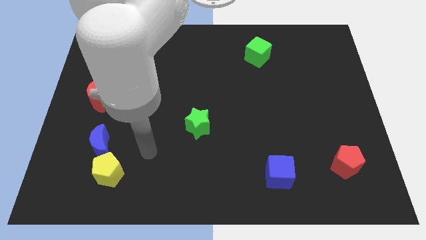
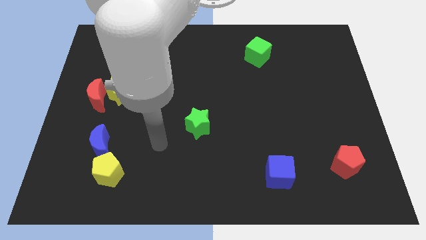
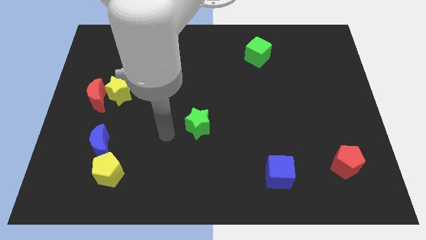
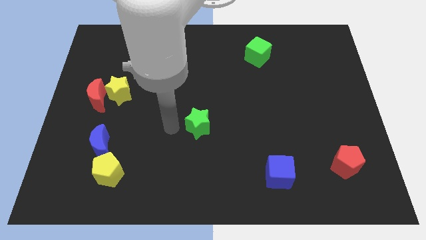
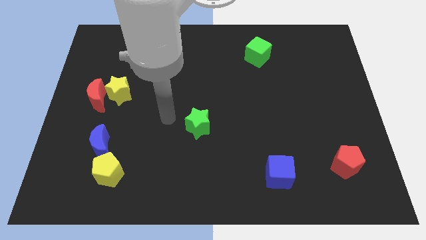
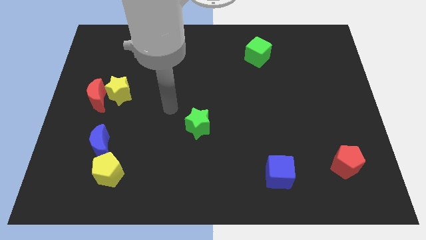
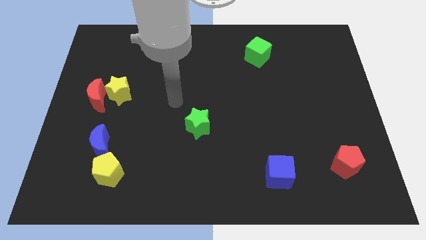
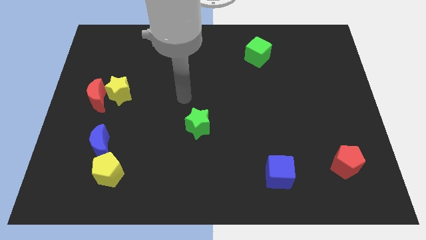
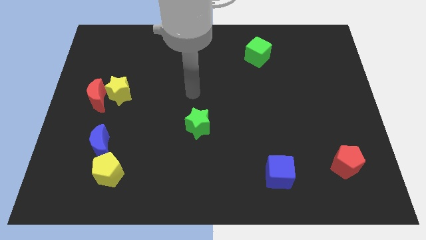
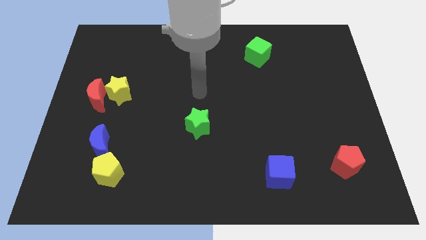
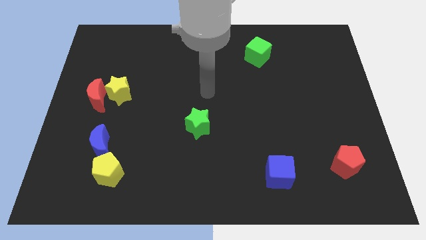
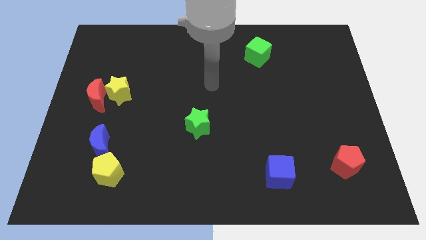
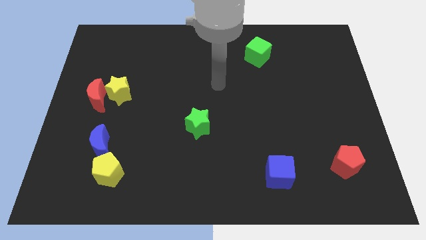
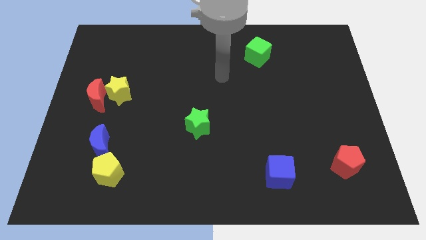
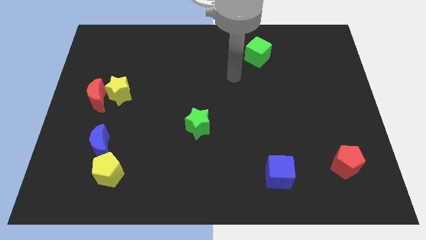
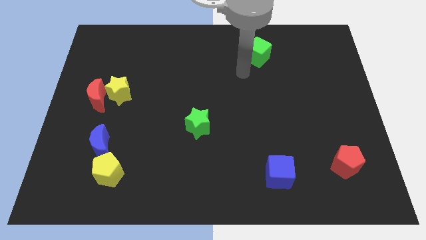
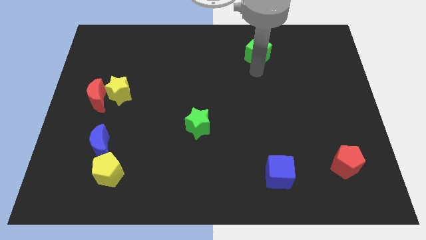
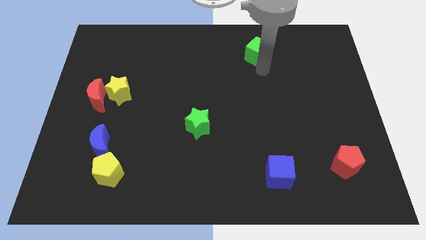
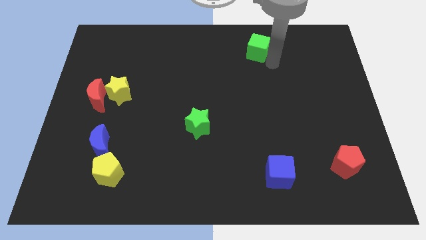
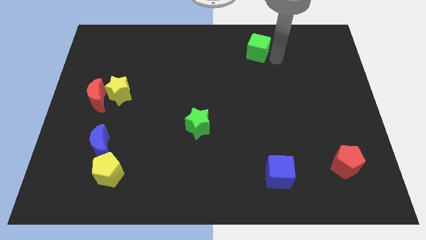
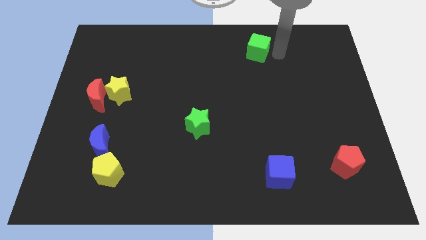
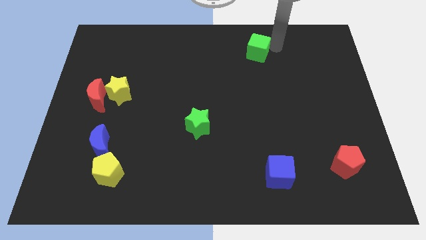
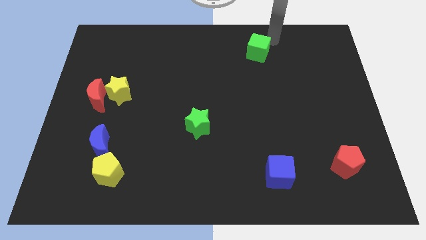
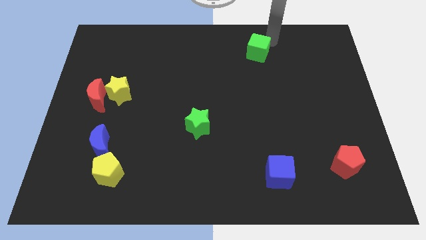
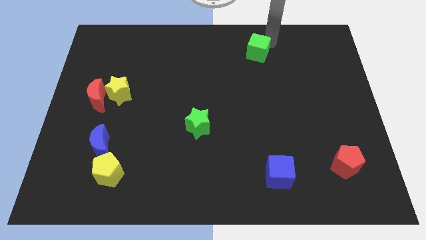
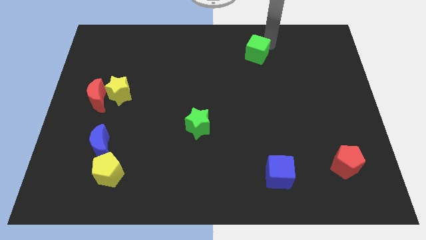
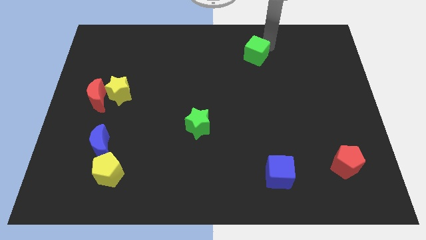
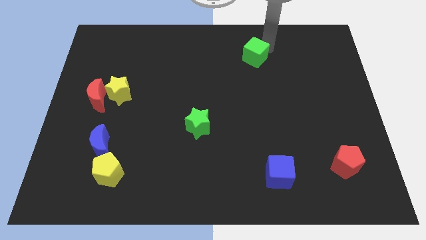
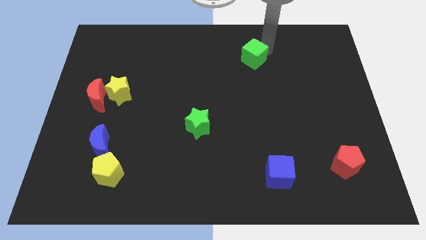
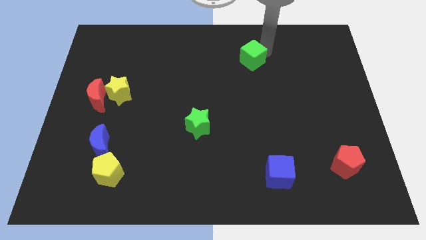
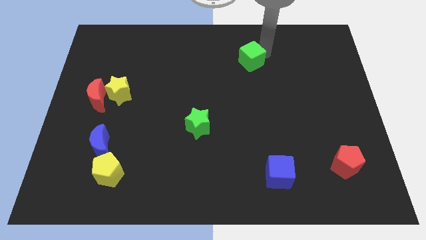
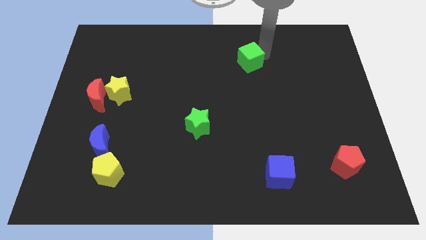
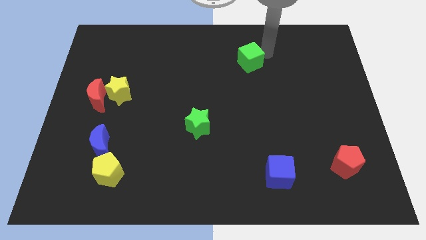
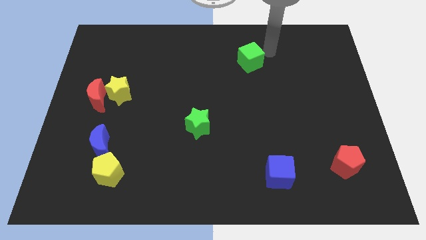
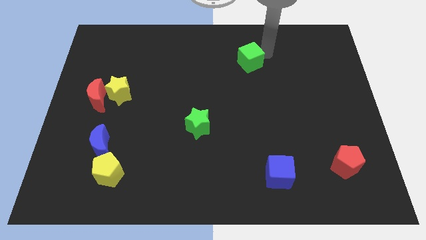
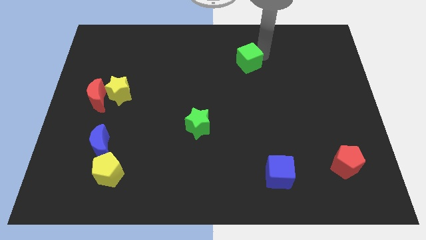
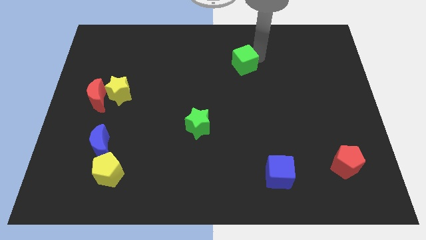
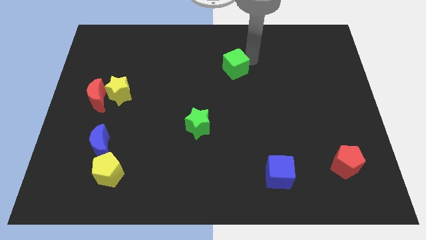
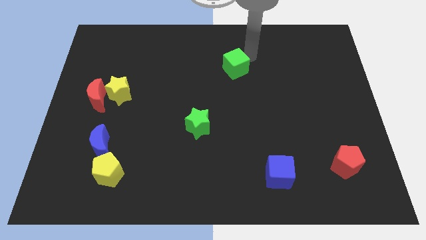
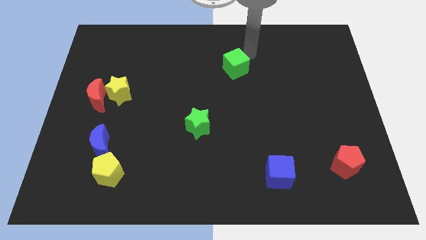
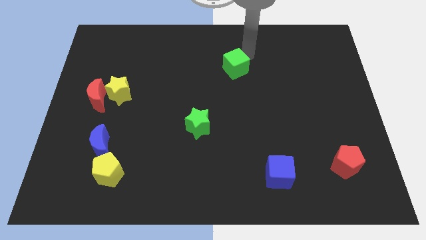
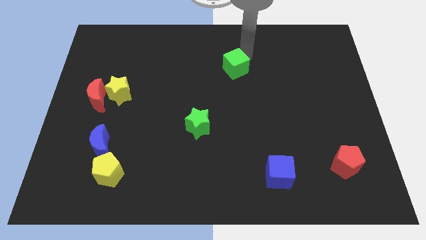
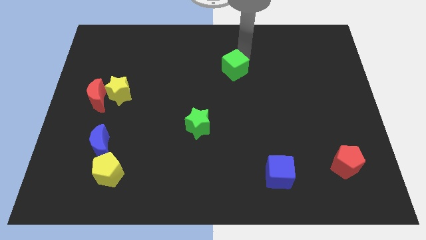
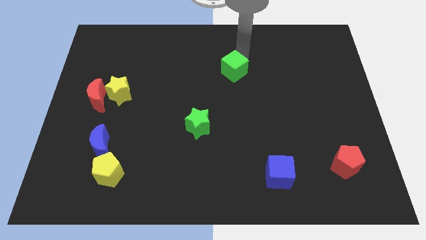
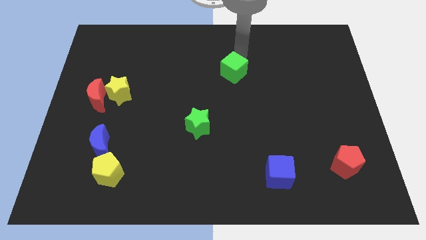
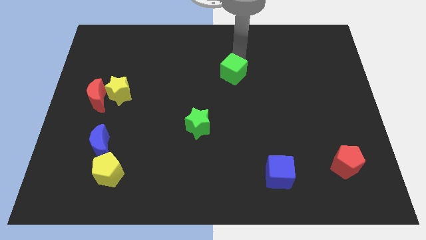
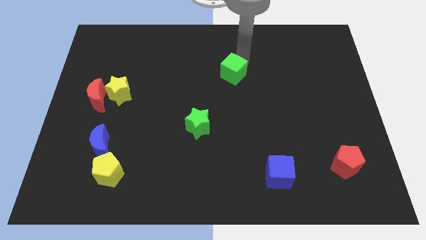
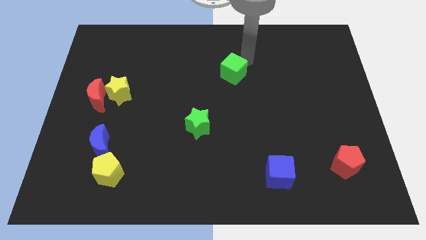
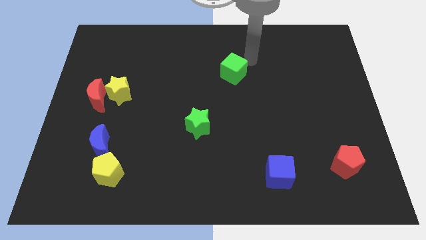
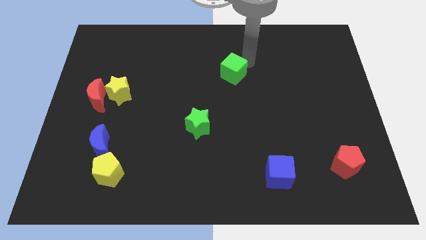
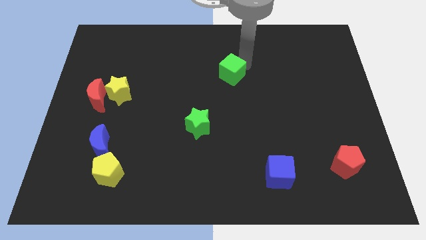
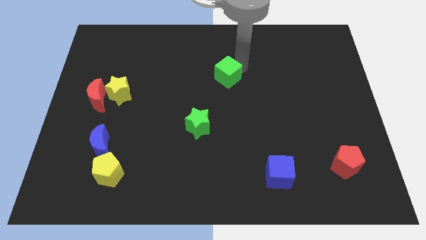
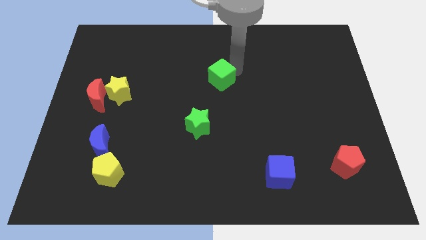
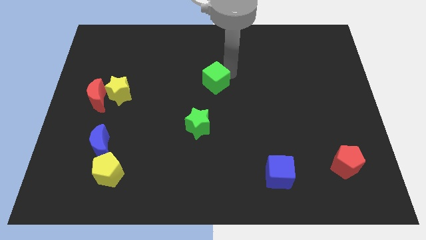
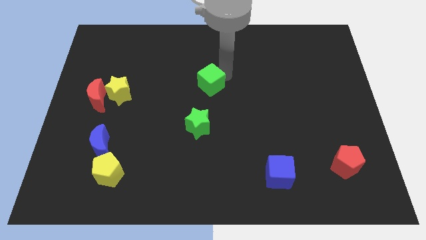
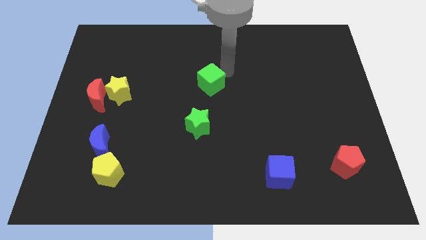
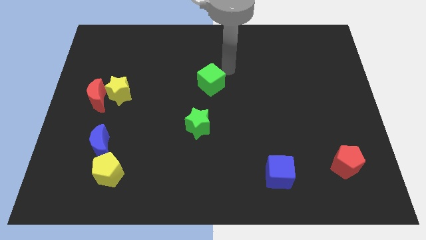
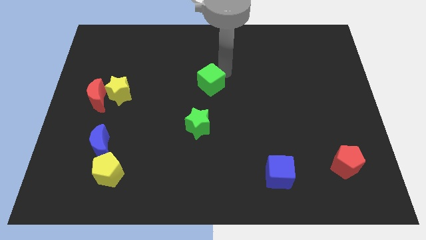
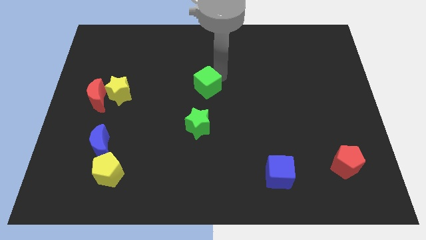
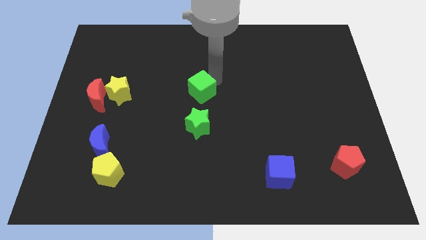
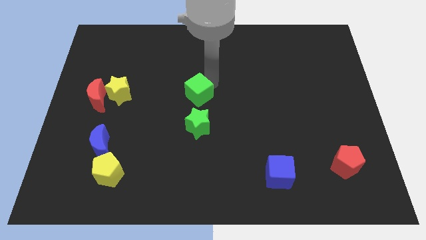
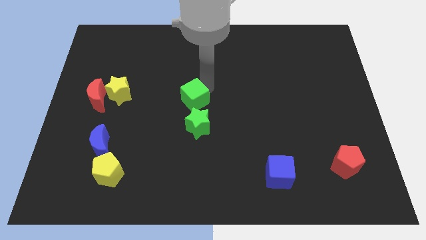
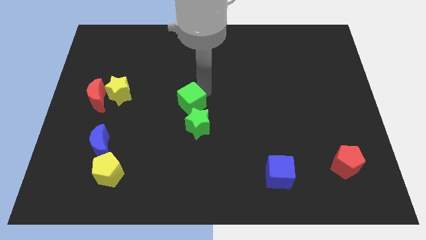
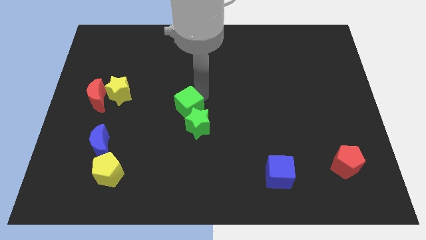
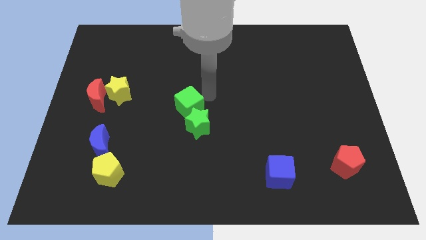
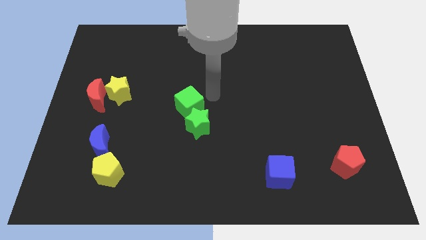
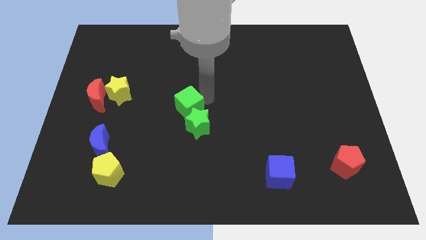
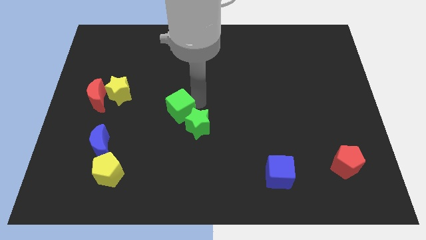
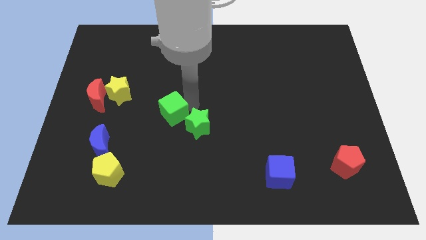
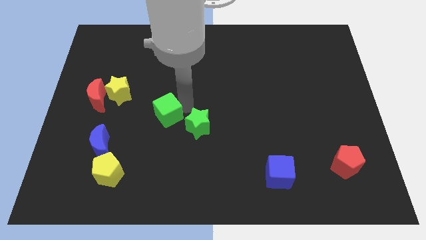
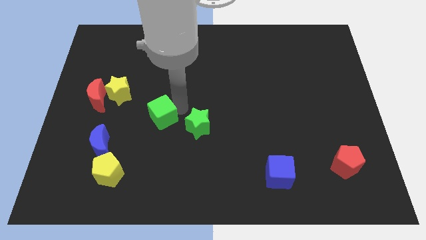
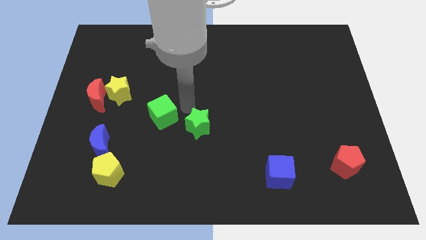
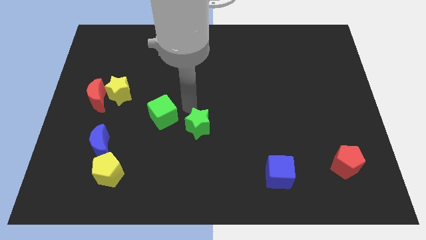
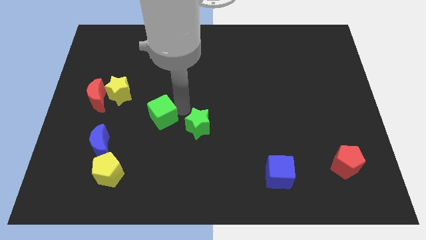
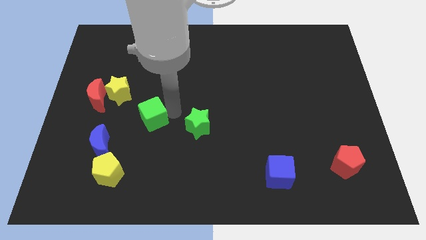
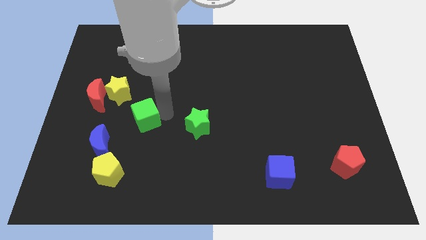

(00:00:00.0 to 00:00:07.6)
slide the green cube to the top right of the blue moon

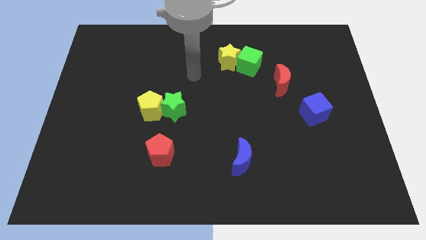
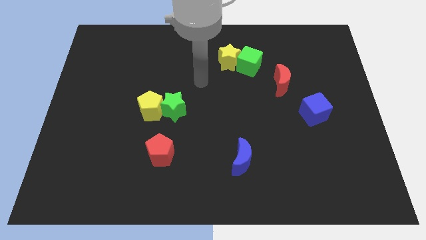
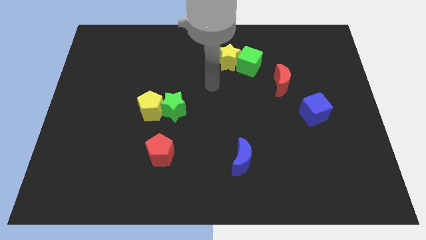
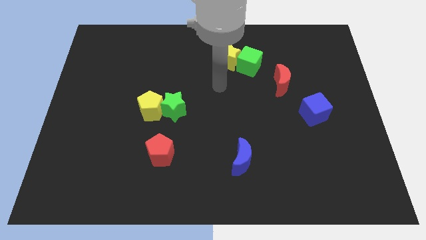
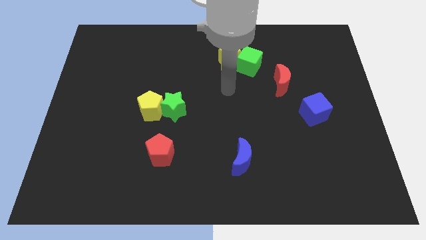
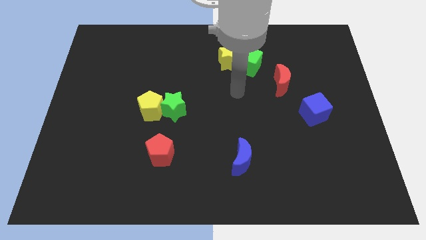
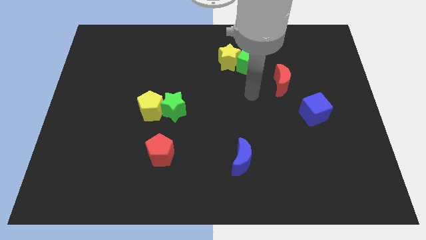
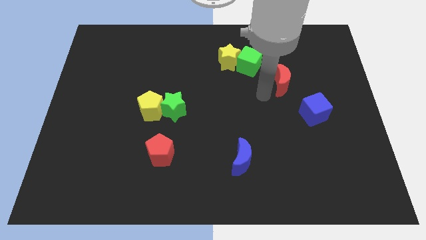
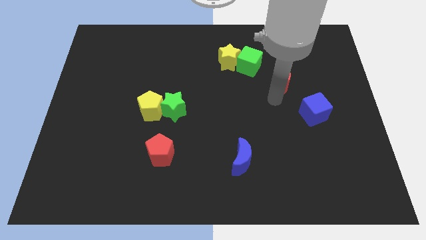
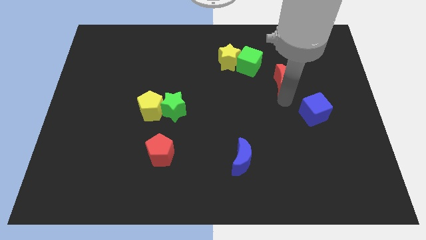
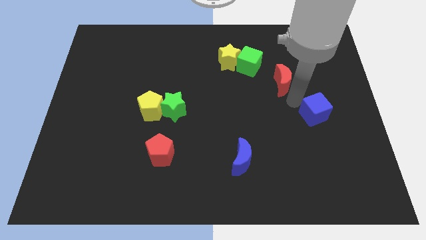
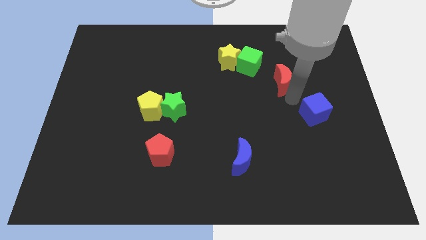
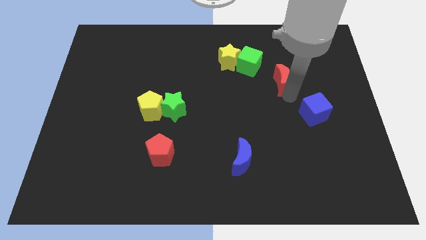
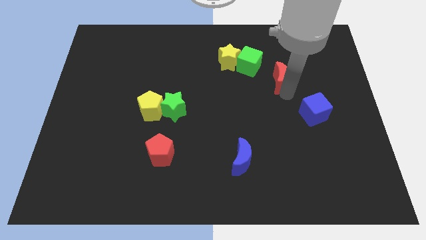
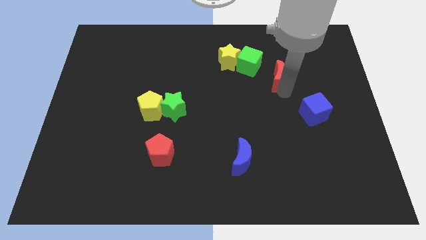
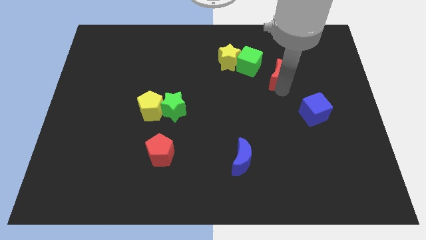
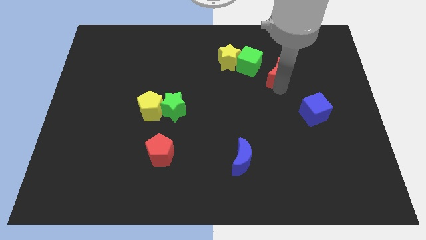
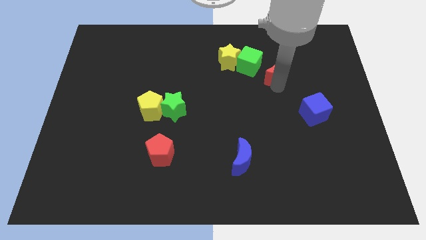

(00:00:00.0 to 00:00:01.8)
move the red moon to the right of the yellow star
